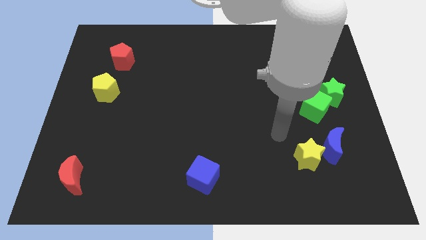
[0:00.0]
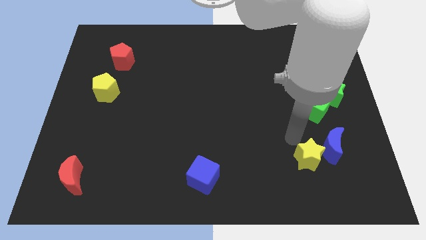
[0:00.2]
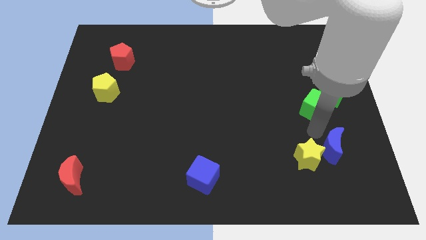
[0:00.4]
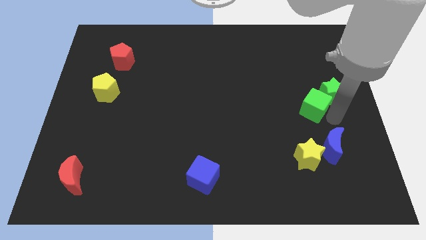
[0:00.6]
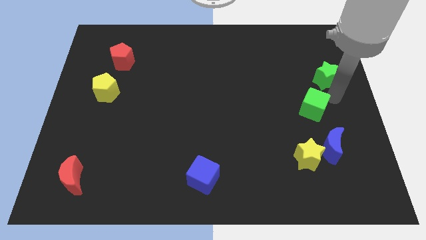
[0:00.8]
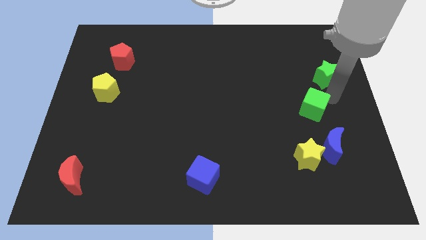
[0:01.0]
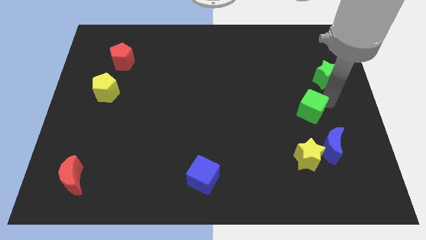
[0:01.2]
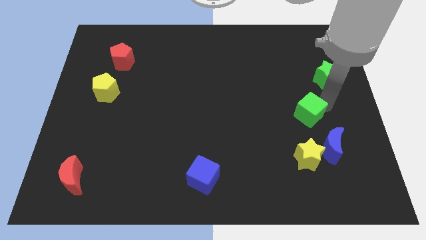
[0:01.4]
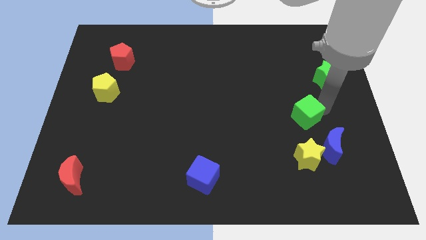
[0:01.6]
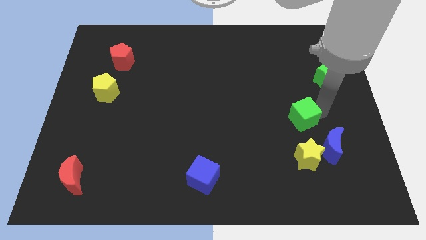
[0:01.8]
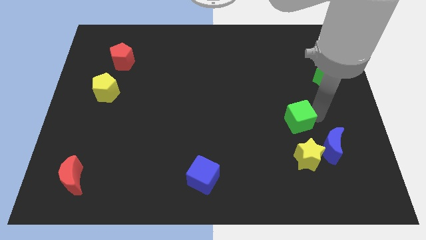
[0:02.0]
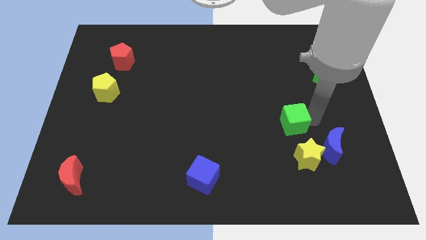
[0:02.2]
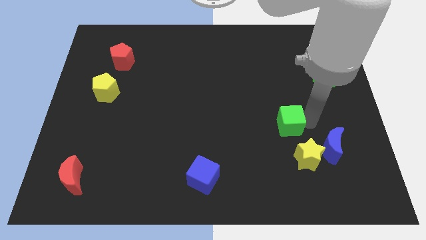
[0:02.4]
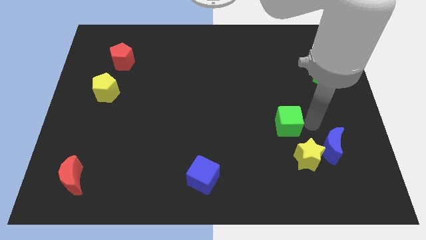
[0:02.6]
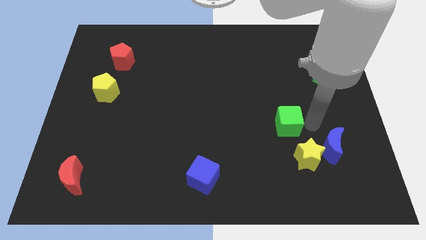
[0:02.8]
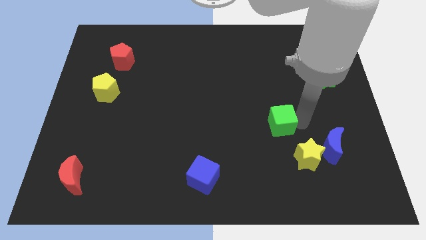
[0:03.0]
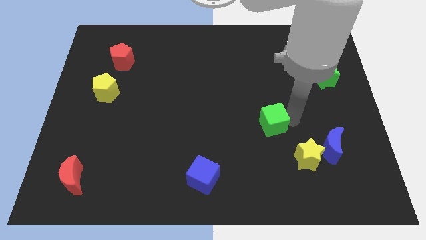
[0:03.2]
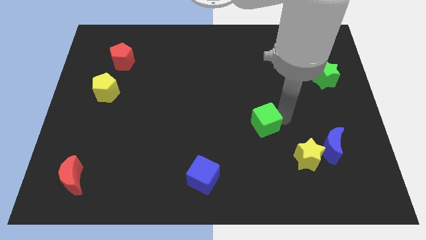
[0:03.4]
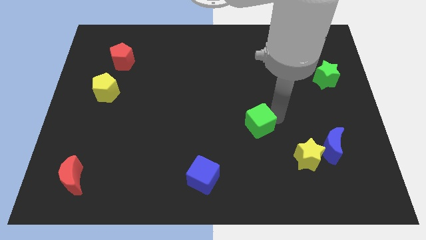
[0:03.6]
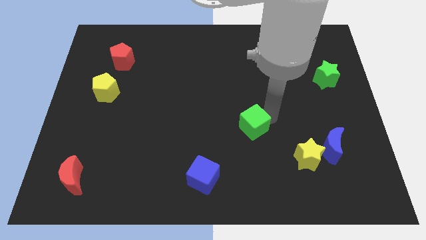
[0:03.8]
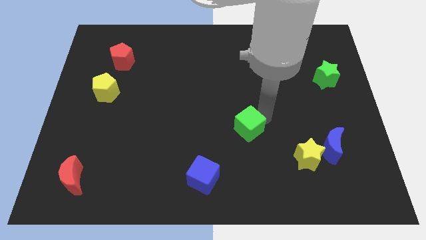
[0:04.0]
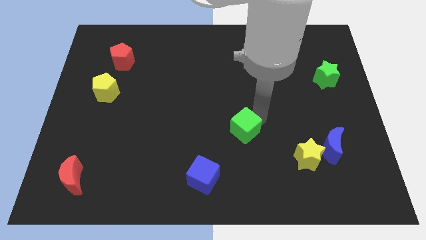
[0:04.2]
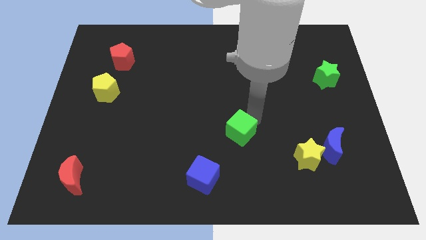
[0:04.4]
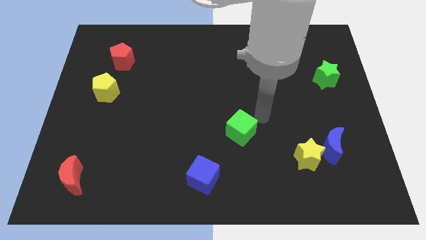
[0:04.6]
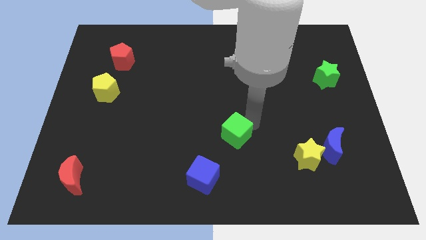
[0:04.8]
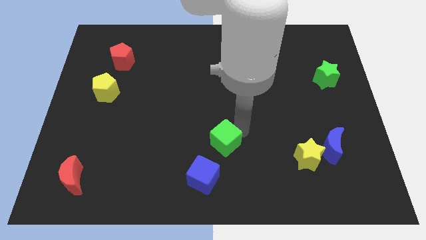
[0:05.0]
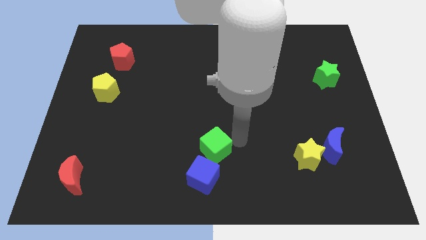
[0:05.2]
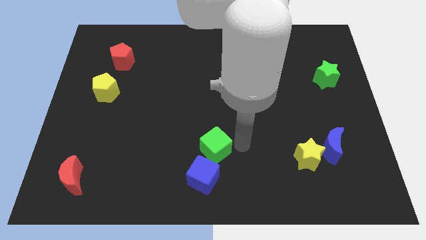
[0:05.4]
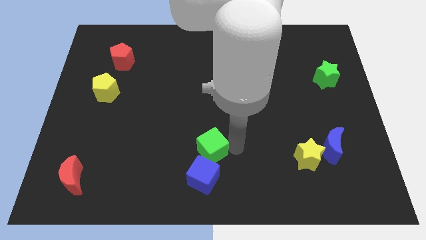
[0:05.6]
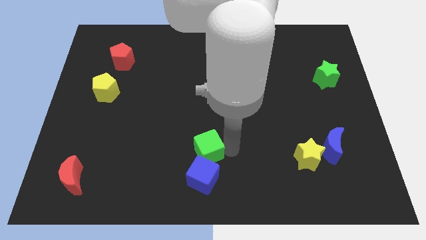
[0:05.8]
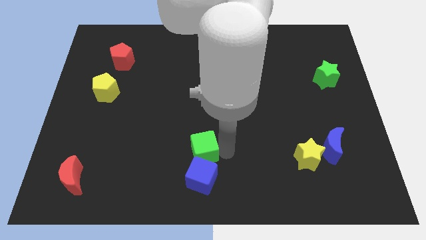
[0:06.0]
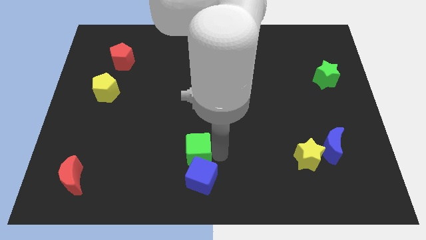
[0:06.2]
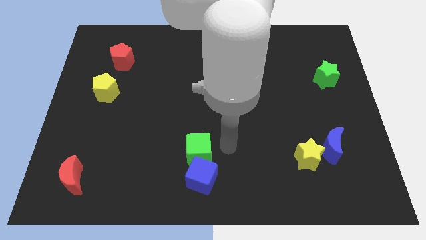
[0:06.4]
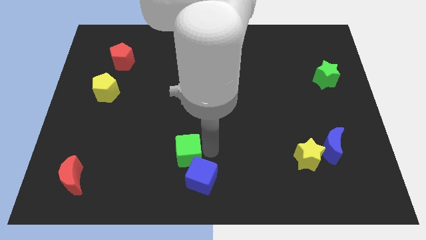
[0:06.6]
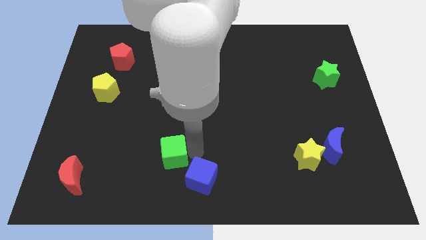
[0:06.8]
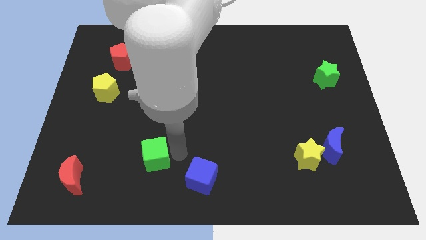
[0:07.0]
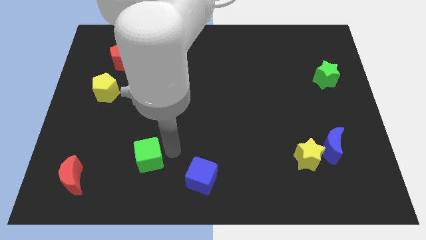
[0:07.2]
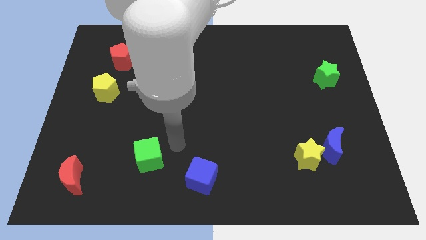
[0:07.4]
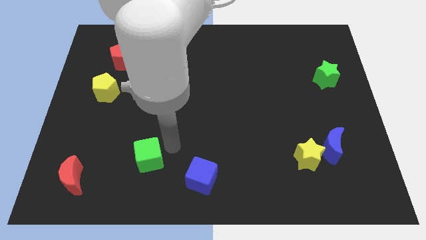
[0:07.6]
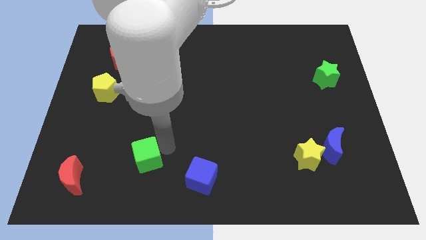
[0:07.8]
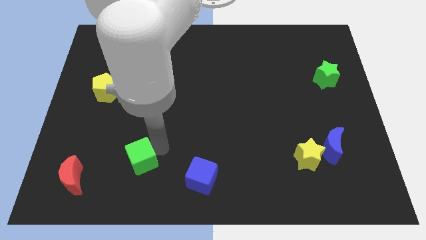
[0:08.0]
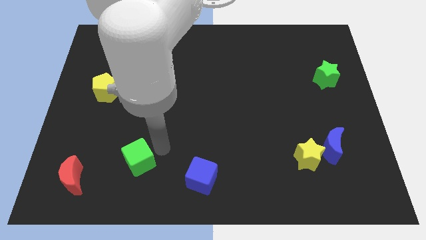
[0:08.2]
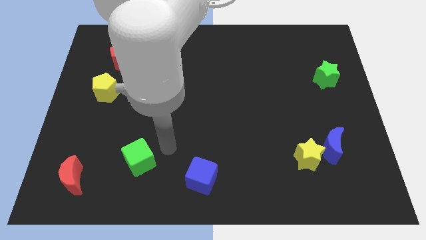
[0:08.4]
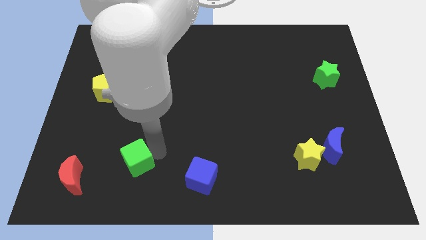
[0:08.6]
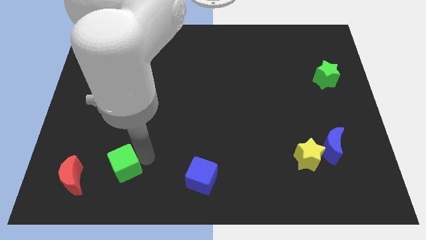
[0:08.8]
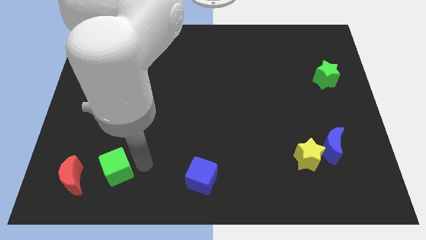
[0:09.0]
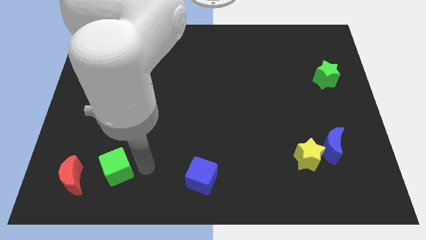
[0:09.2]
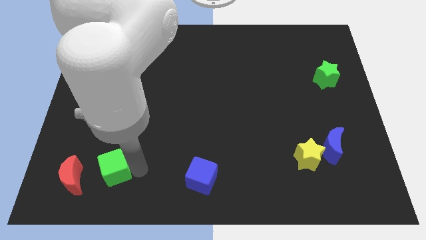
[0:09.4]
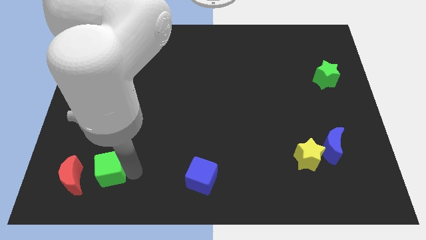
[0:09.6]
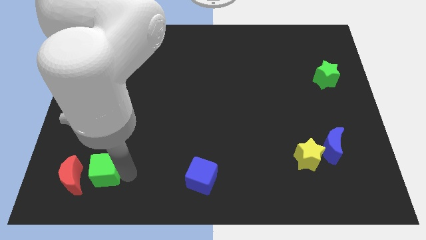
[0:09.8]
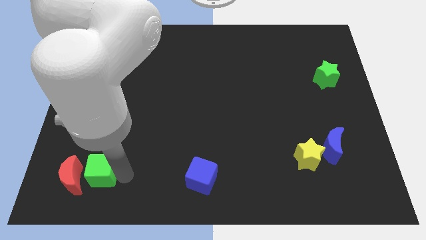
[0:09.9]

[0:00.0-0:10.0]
put the green cube close to the red moon

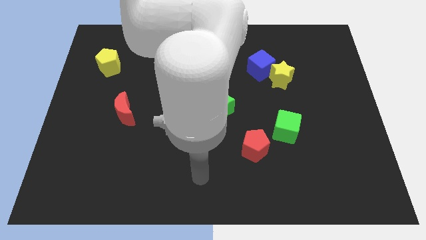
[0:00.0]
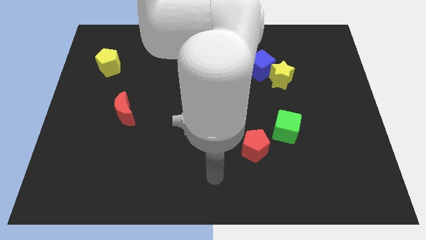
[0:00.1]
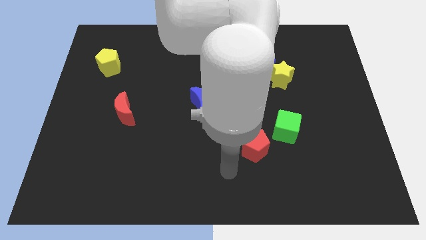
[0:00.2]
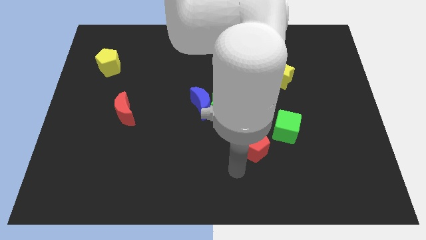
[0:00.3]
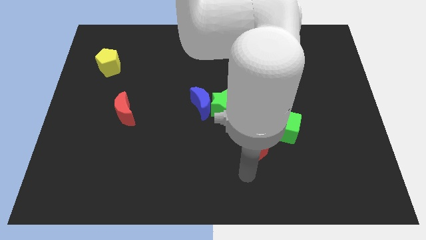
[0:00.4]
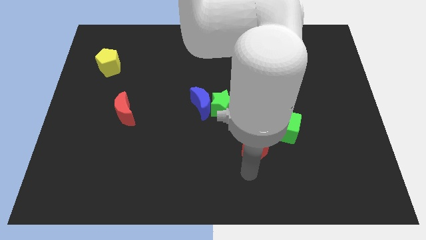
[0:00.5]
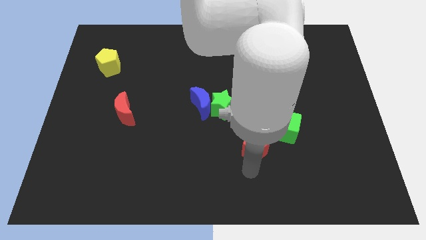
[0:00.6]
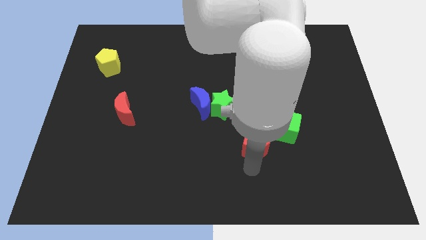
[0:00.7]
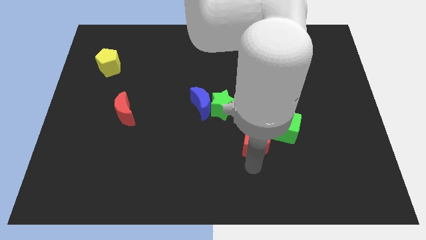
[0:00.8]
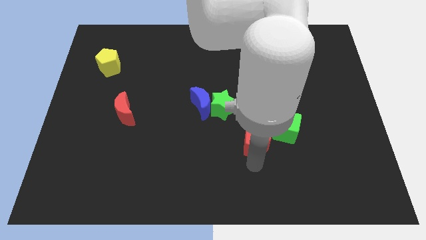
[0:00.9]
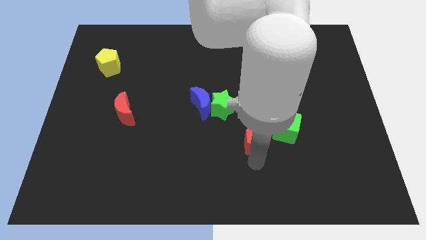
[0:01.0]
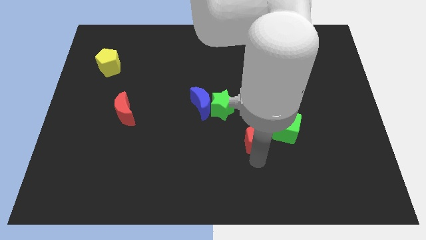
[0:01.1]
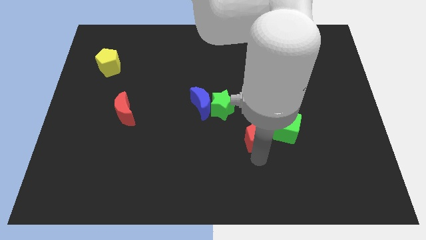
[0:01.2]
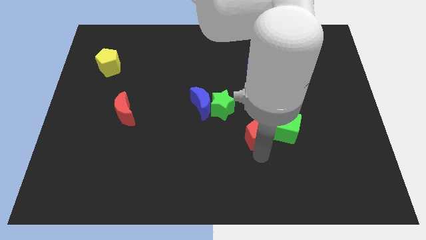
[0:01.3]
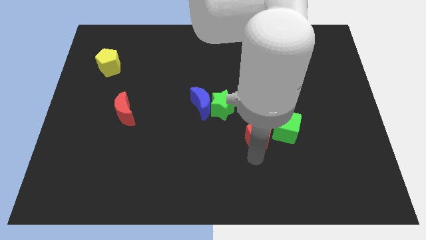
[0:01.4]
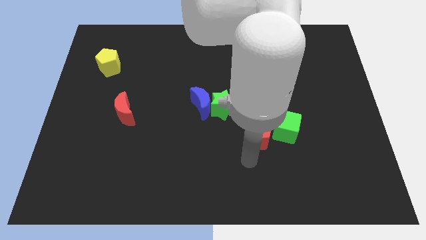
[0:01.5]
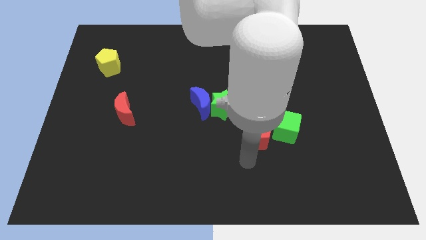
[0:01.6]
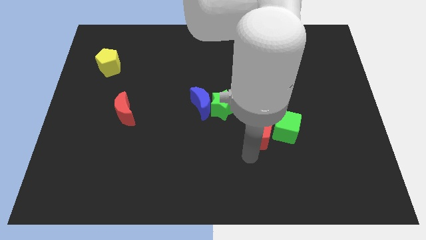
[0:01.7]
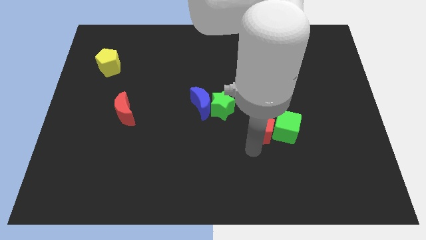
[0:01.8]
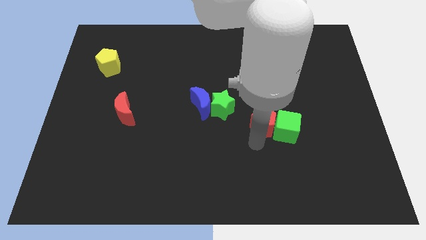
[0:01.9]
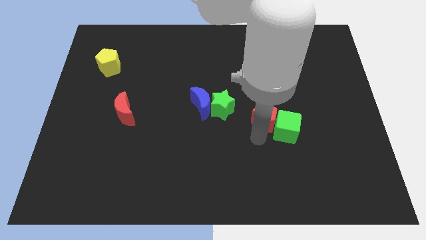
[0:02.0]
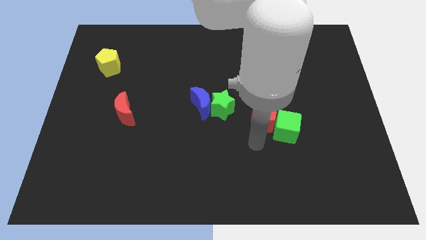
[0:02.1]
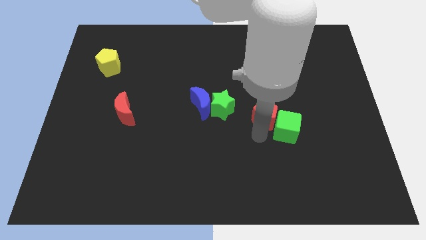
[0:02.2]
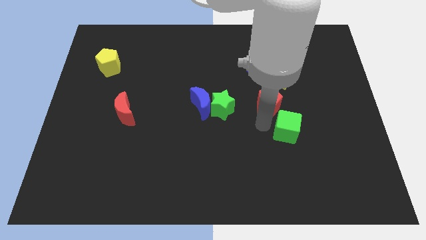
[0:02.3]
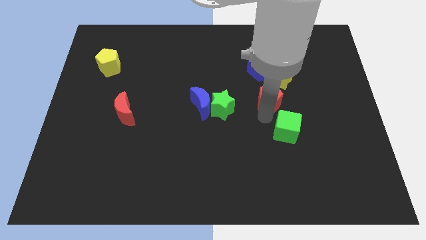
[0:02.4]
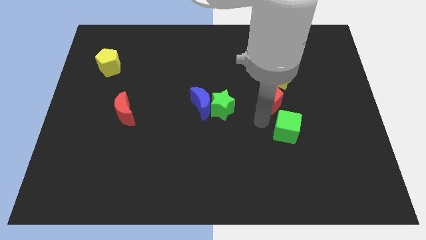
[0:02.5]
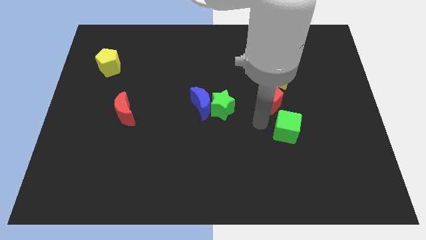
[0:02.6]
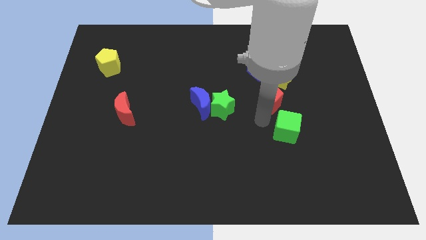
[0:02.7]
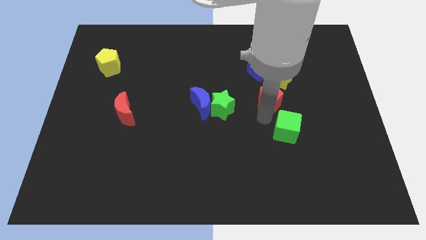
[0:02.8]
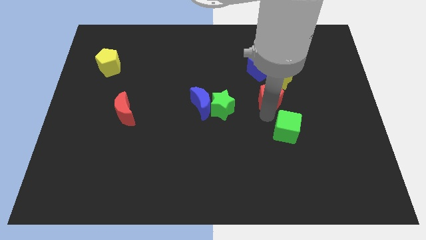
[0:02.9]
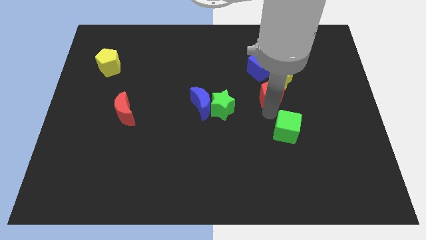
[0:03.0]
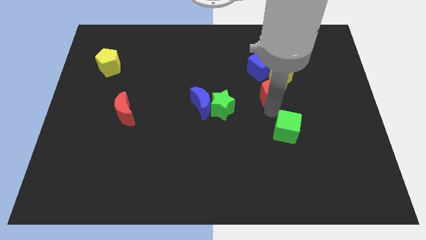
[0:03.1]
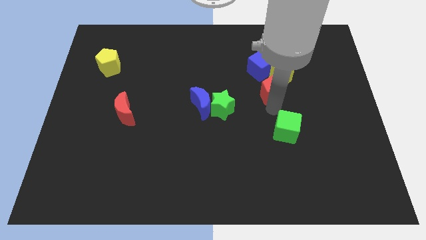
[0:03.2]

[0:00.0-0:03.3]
slide the red pentagon to the yellow star
